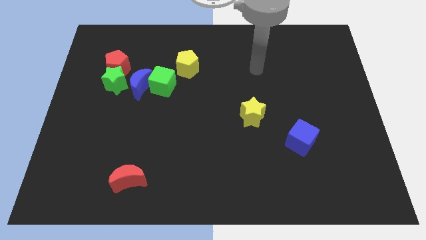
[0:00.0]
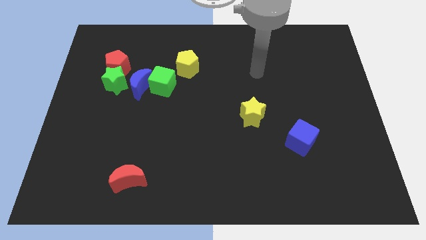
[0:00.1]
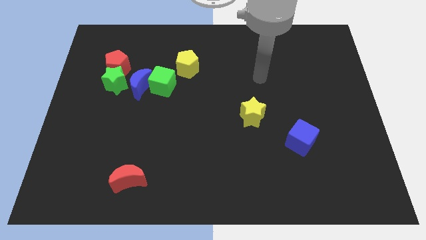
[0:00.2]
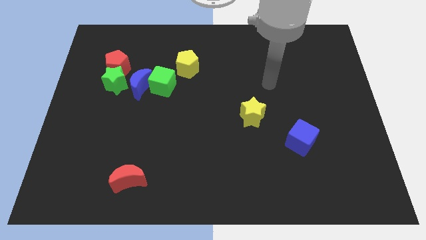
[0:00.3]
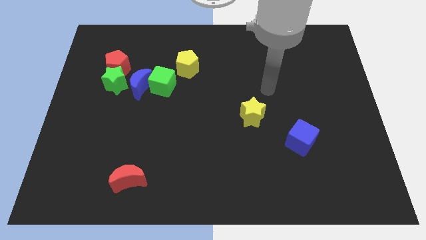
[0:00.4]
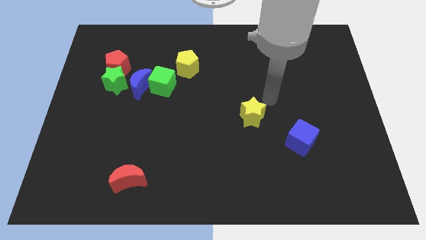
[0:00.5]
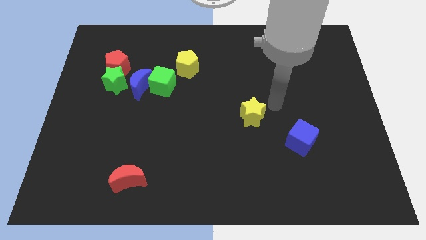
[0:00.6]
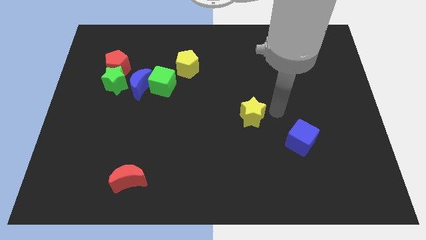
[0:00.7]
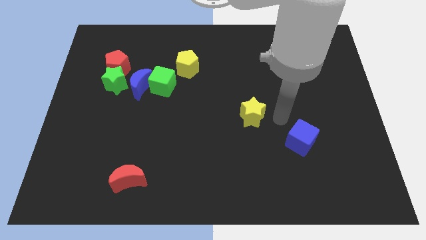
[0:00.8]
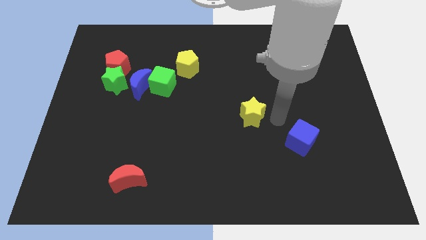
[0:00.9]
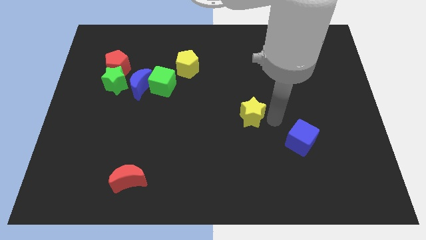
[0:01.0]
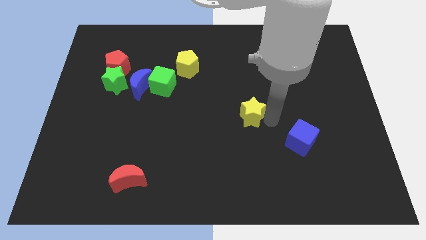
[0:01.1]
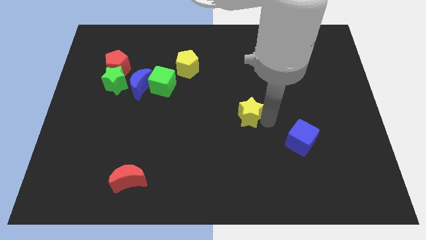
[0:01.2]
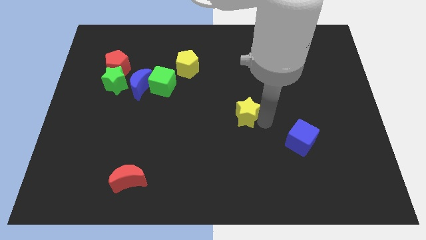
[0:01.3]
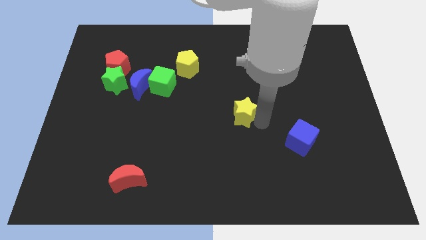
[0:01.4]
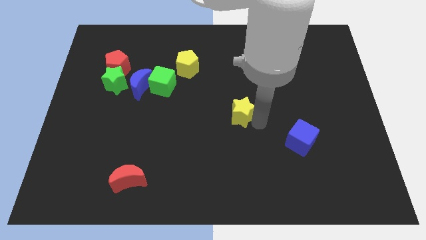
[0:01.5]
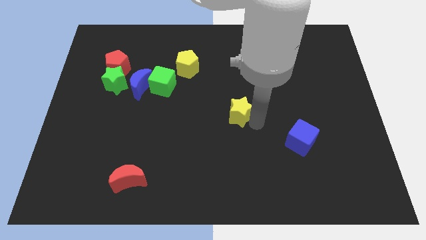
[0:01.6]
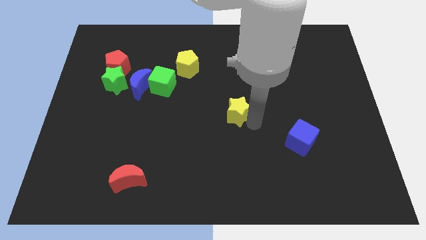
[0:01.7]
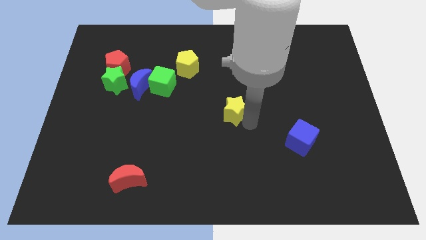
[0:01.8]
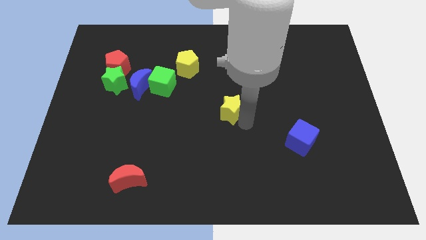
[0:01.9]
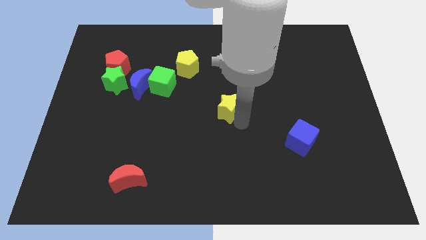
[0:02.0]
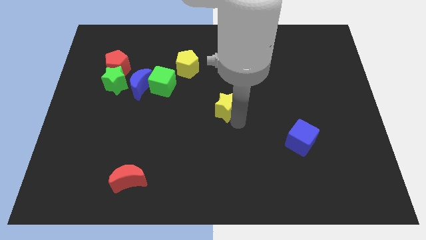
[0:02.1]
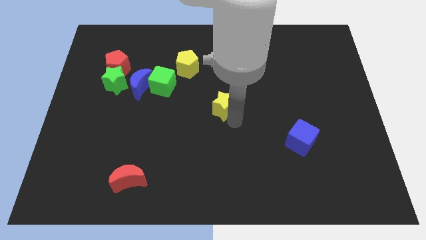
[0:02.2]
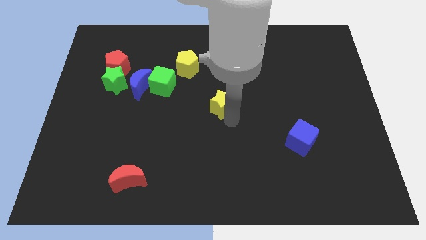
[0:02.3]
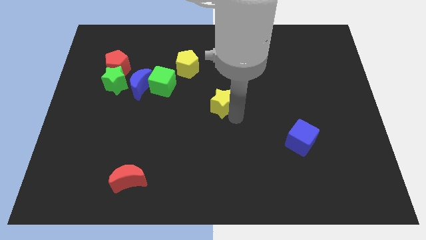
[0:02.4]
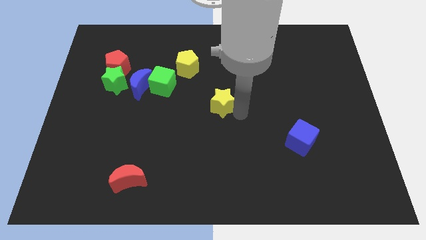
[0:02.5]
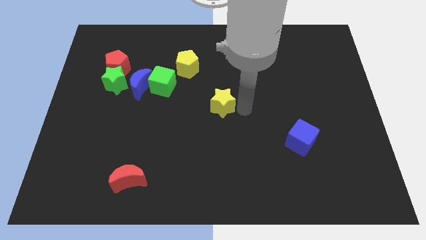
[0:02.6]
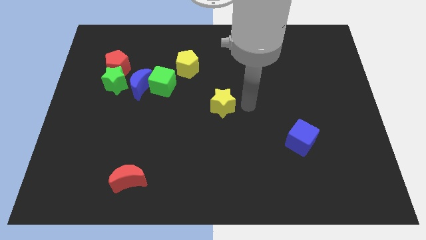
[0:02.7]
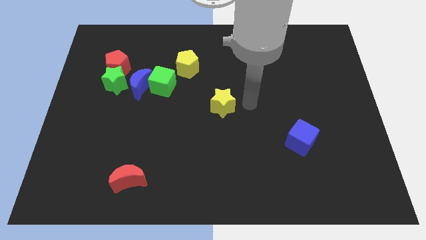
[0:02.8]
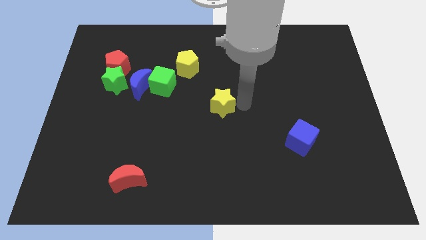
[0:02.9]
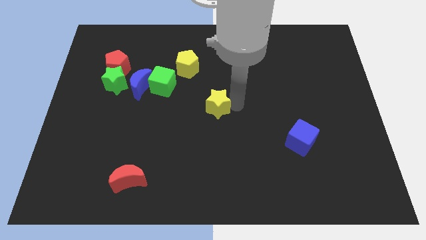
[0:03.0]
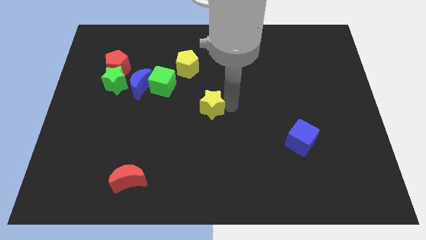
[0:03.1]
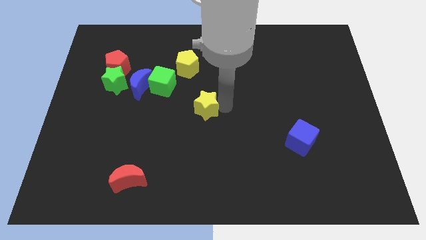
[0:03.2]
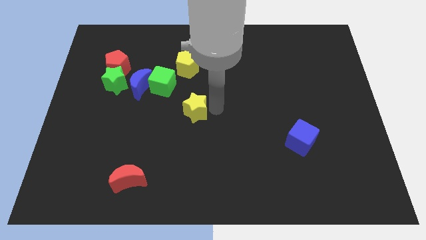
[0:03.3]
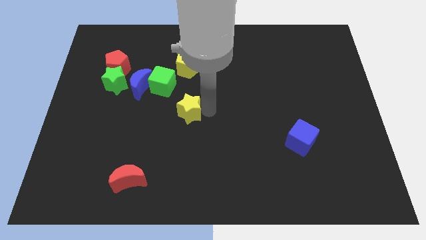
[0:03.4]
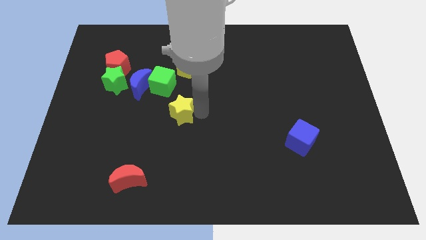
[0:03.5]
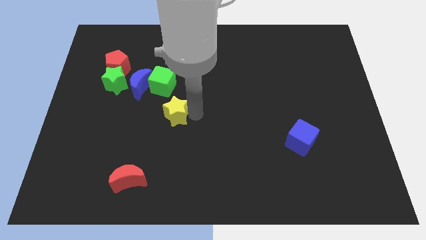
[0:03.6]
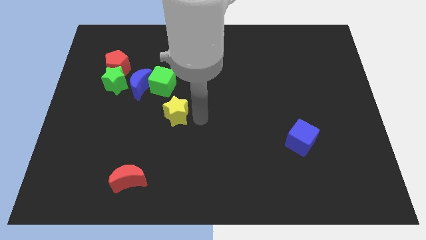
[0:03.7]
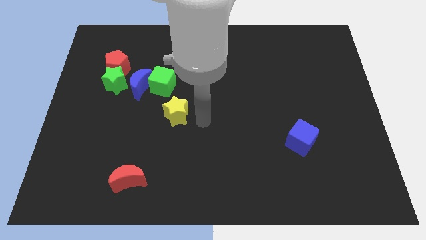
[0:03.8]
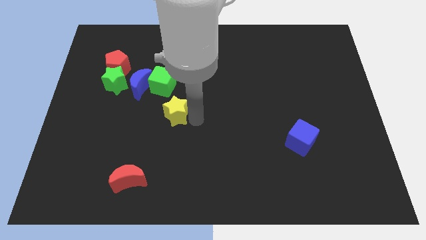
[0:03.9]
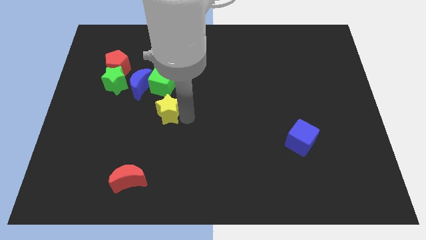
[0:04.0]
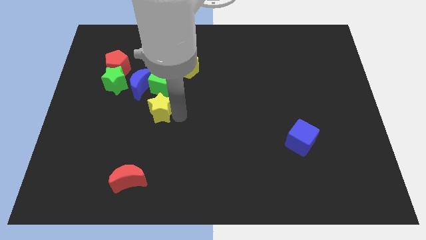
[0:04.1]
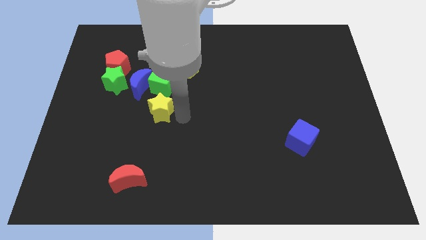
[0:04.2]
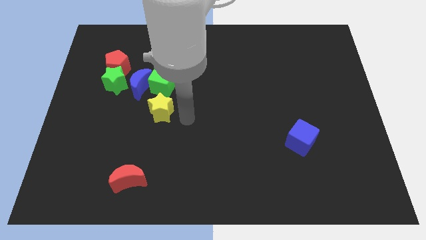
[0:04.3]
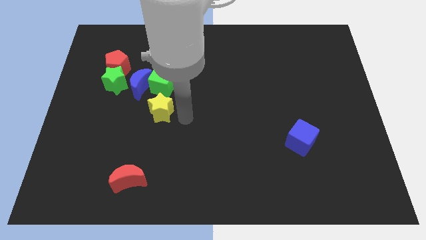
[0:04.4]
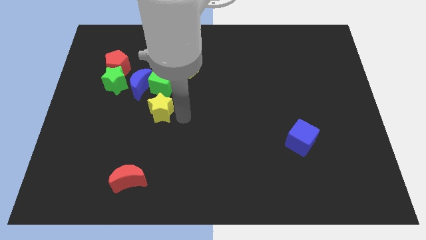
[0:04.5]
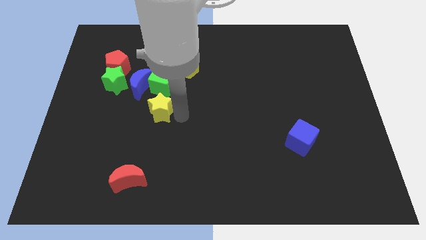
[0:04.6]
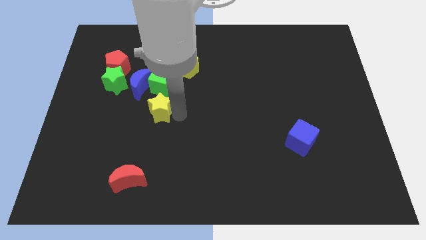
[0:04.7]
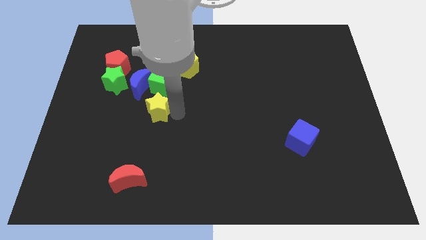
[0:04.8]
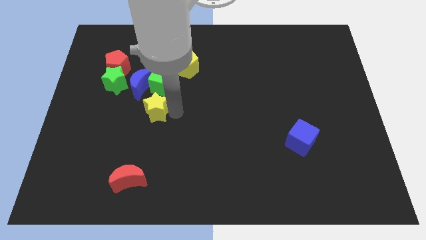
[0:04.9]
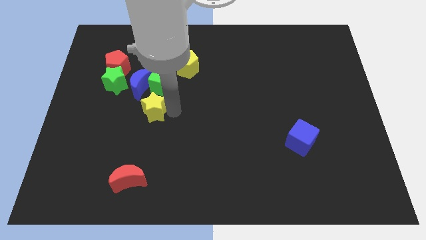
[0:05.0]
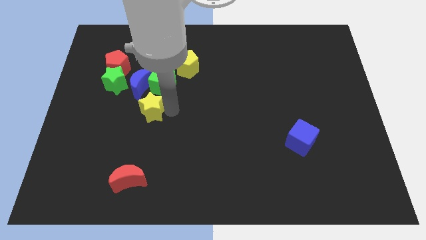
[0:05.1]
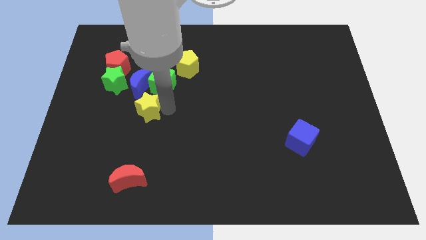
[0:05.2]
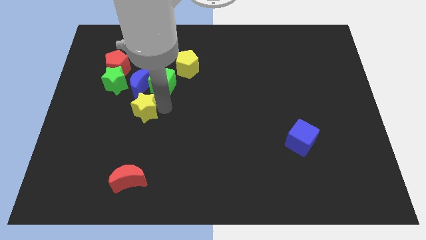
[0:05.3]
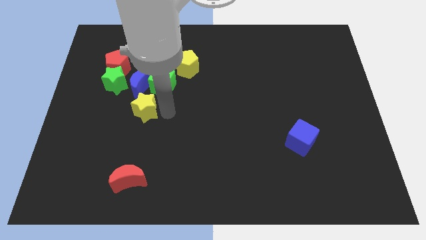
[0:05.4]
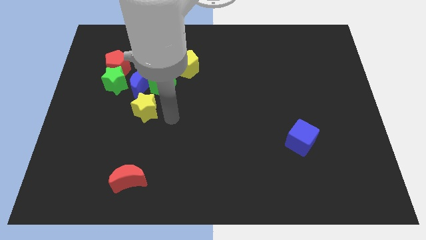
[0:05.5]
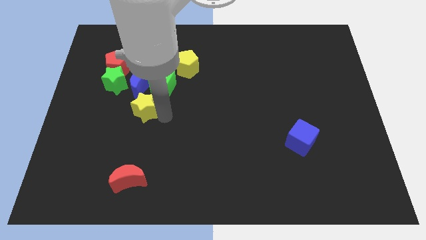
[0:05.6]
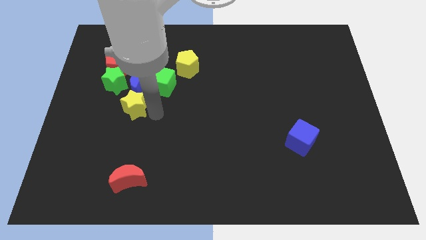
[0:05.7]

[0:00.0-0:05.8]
move the yellow star to the bottom left of the blue moon
